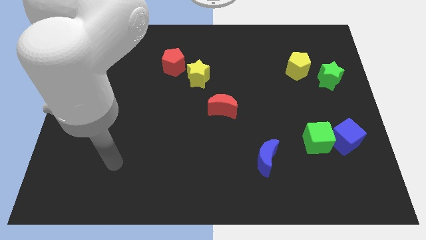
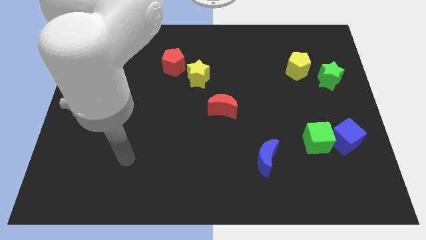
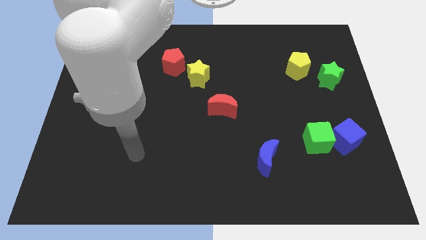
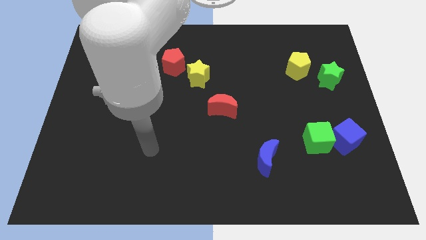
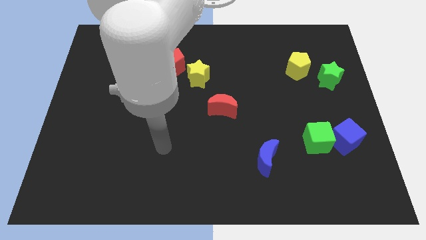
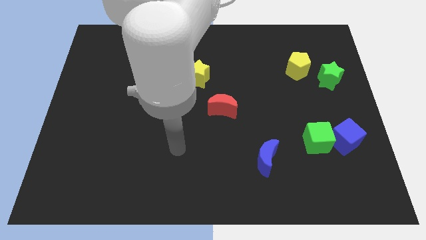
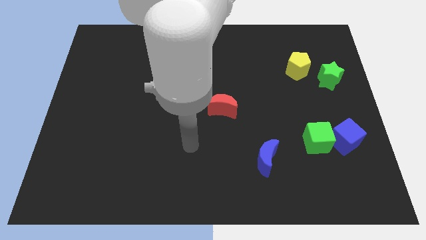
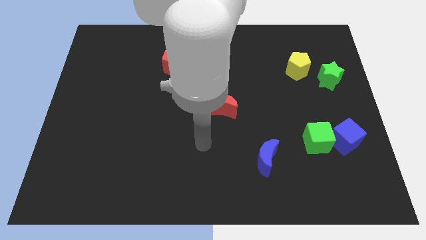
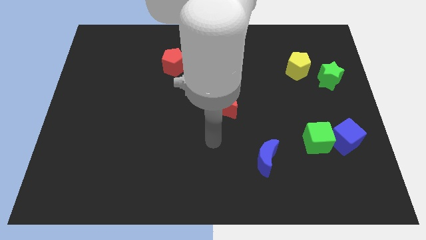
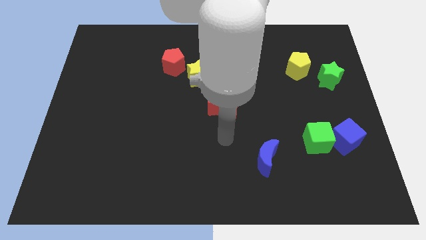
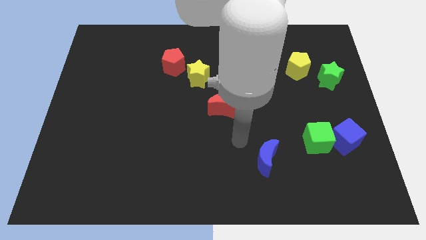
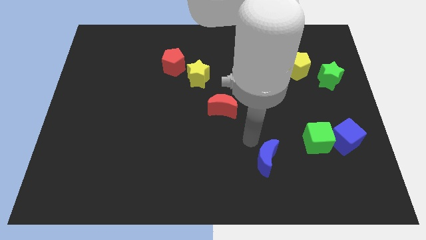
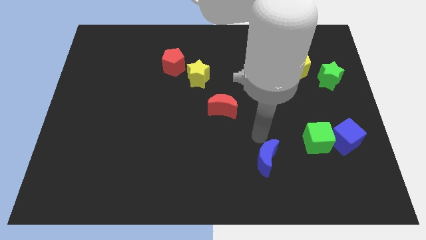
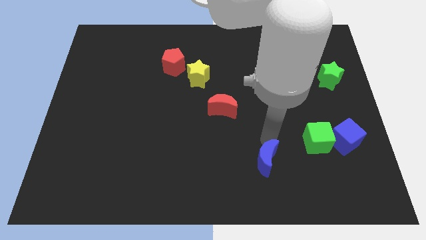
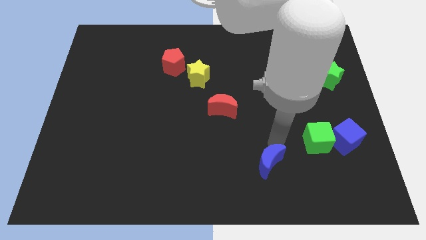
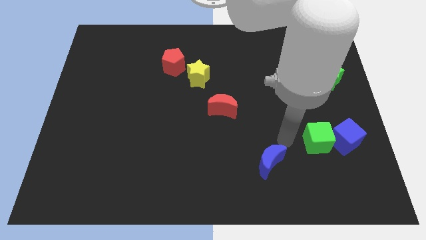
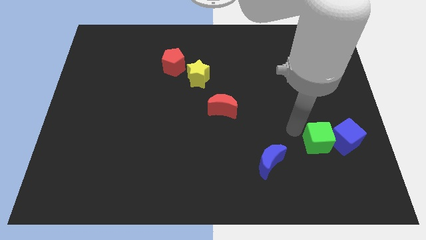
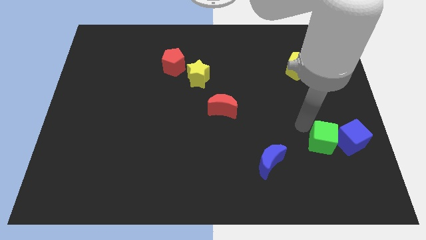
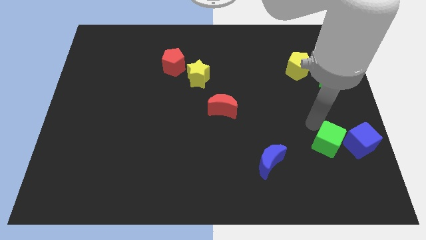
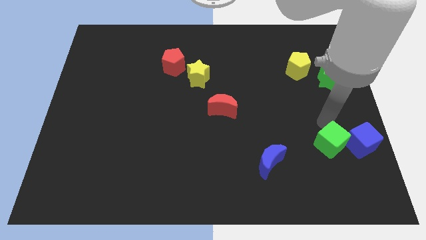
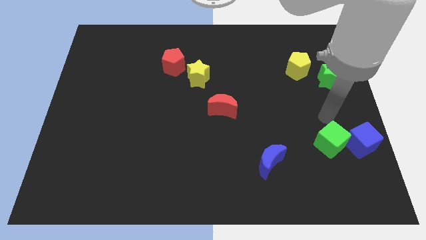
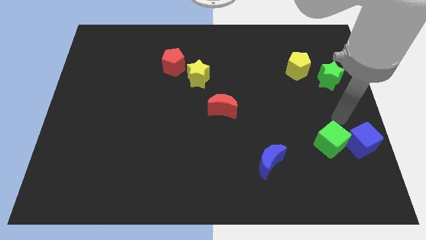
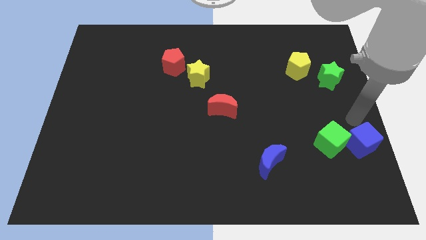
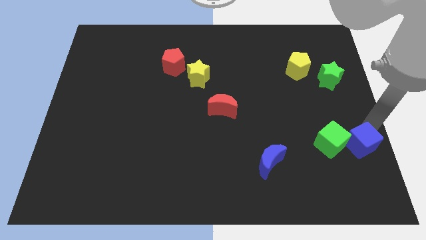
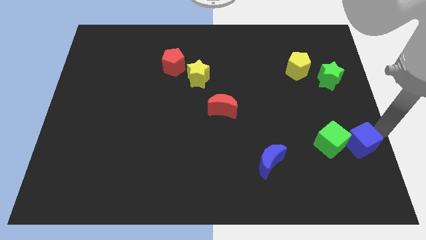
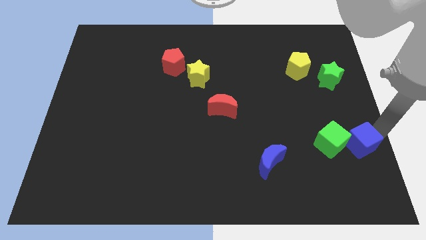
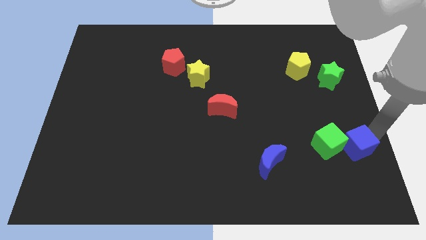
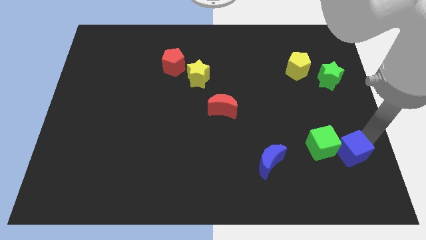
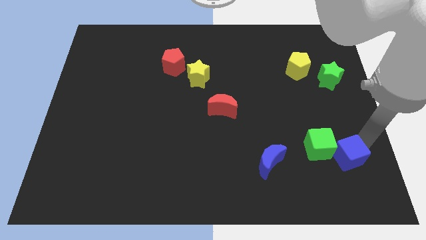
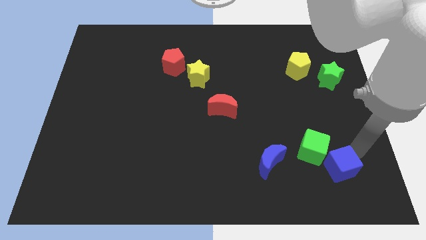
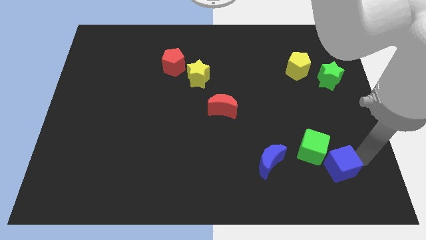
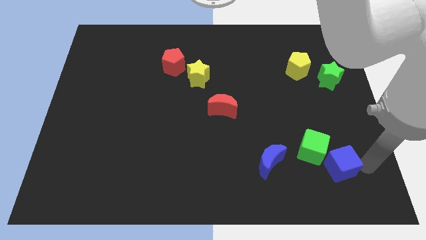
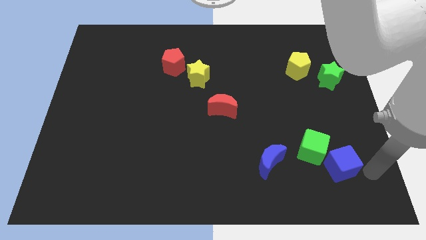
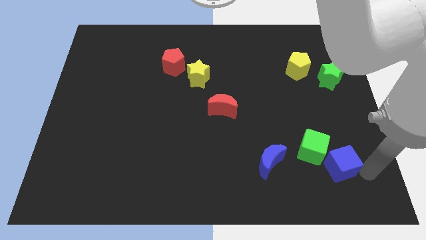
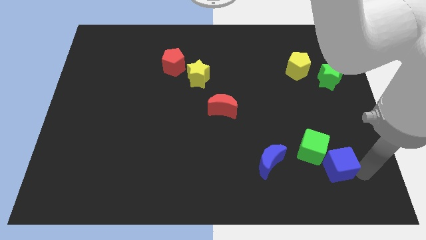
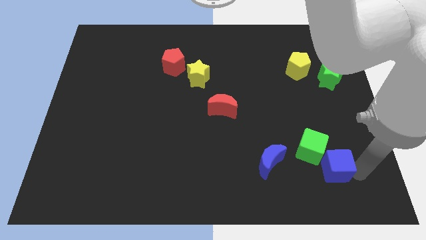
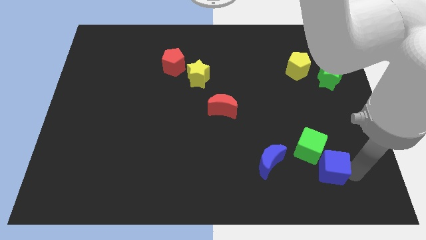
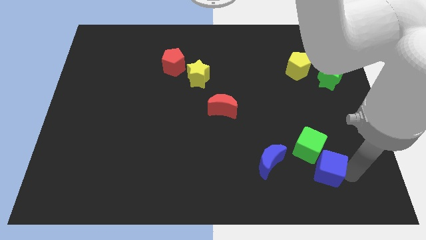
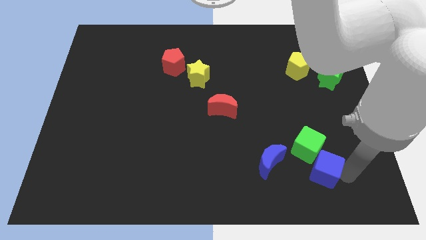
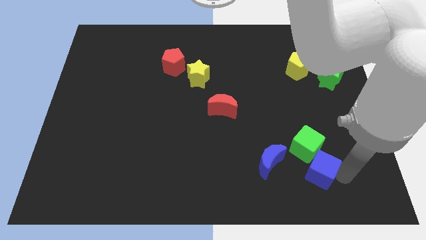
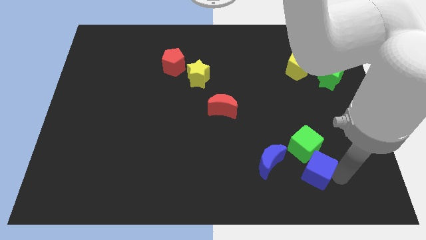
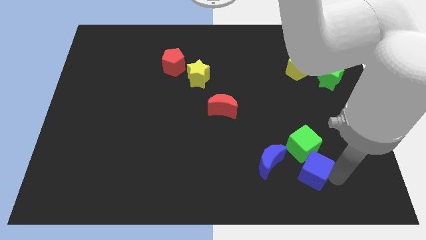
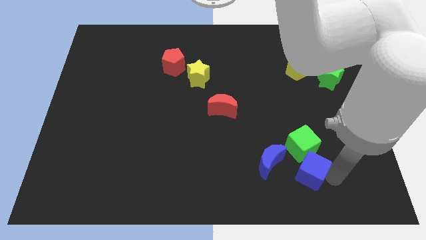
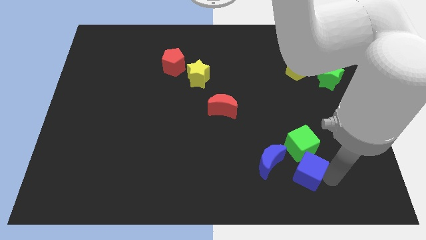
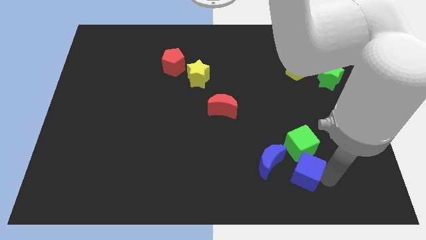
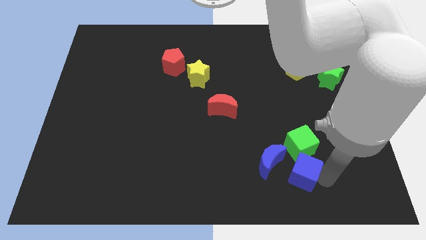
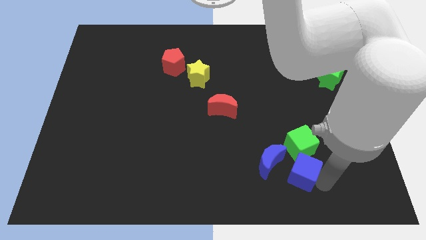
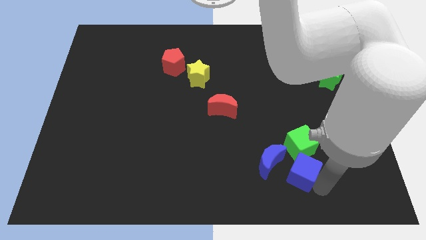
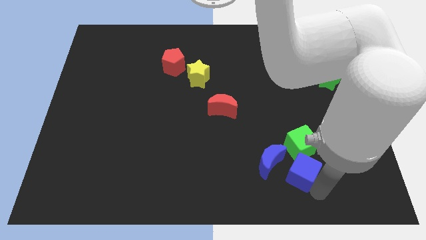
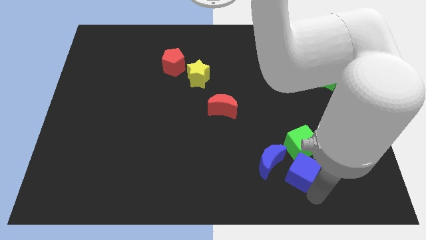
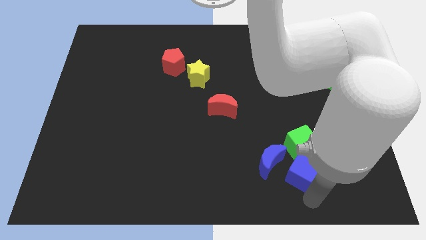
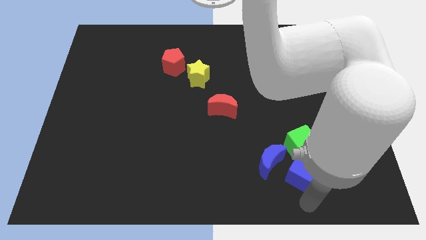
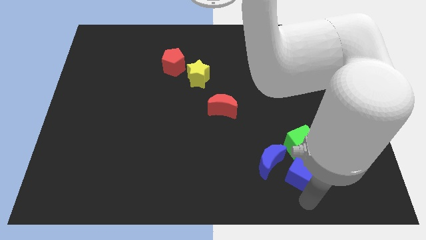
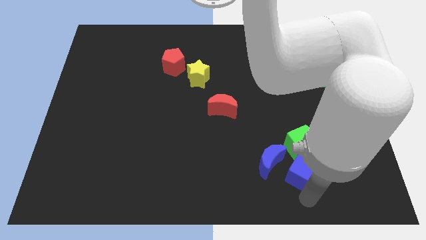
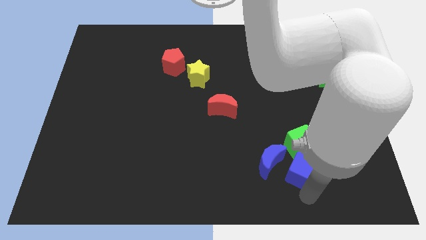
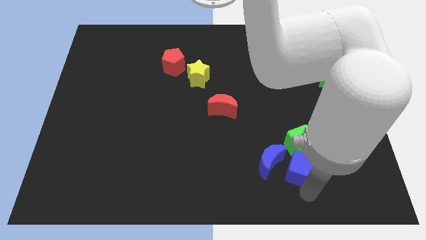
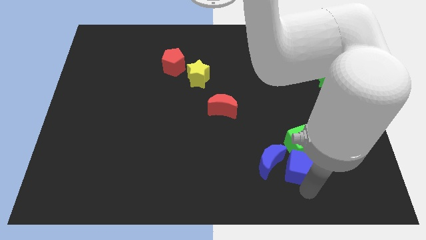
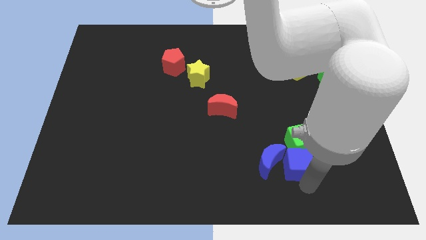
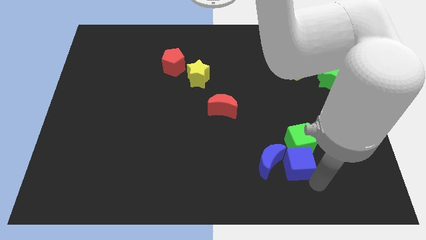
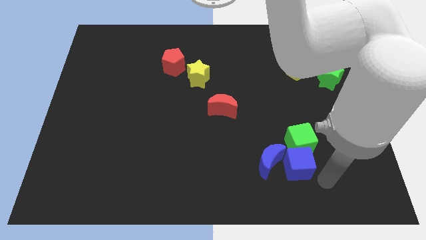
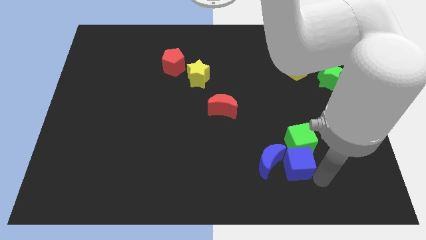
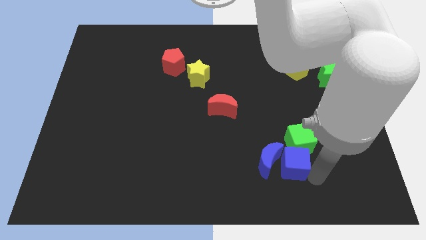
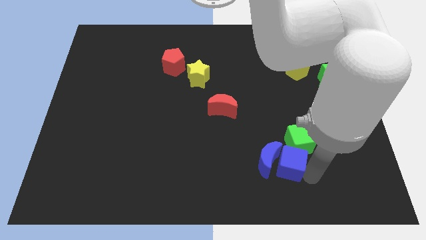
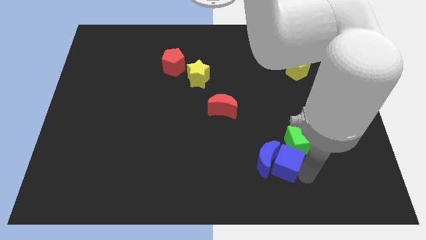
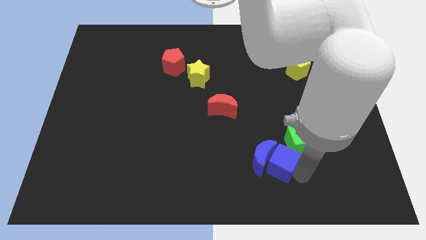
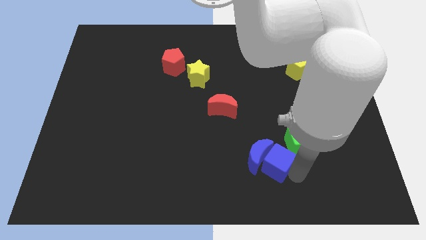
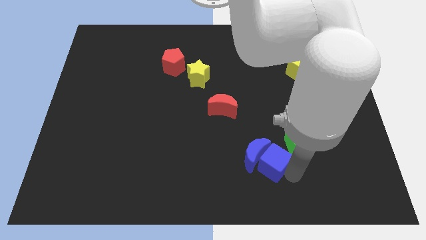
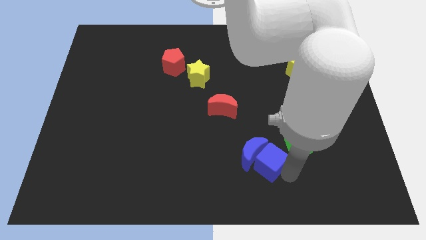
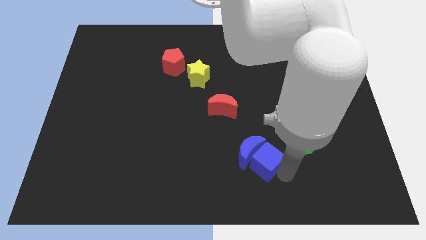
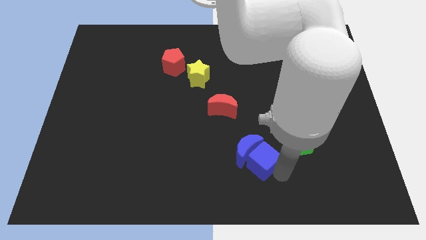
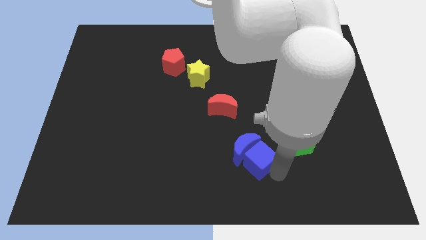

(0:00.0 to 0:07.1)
slide the blue cube to the left side of the green cube

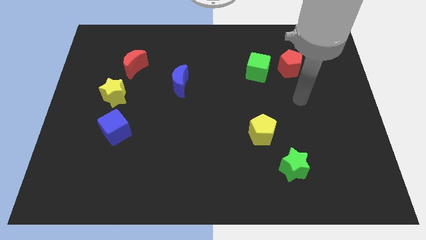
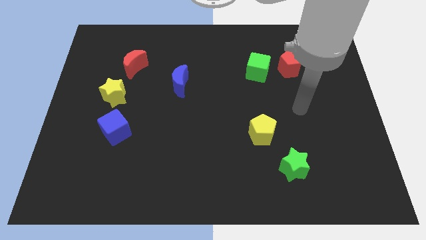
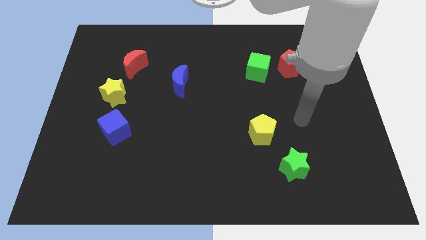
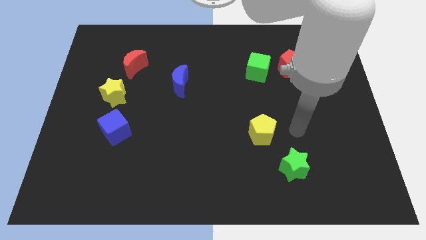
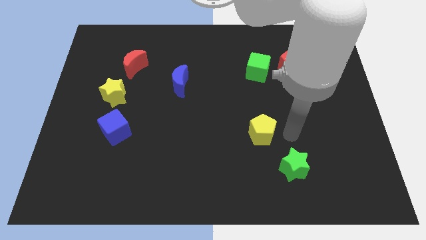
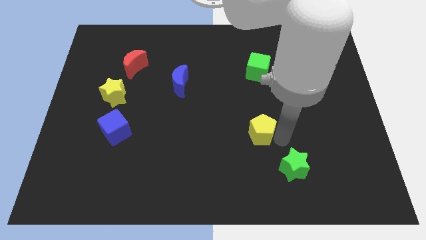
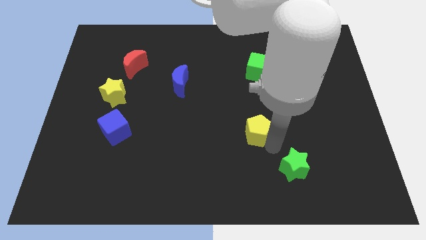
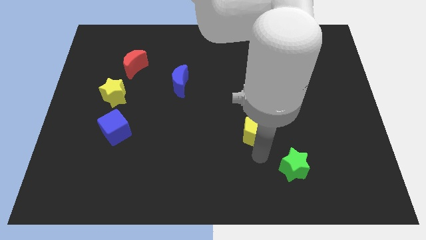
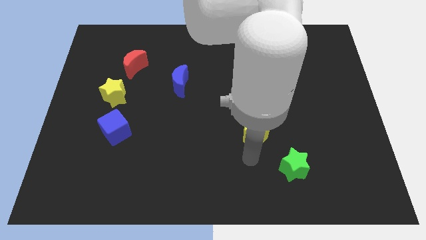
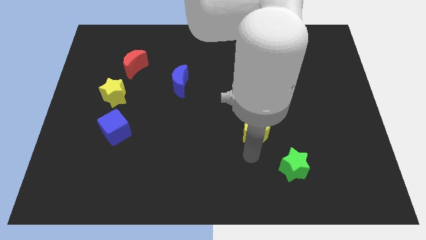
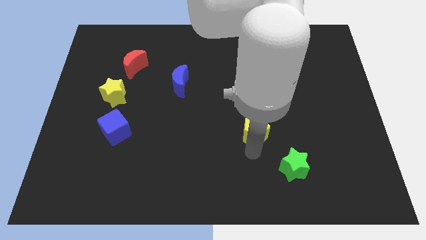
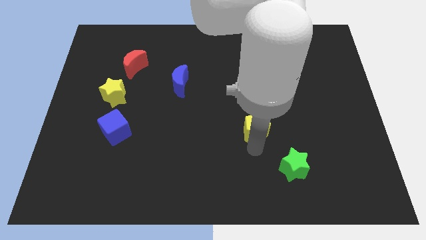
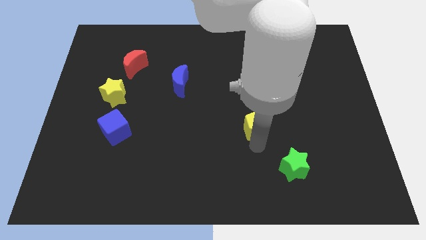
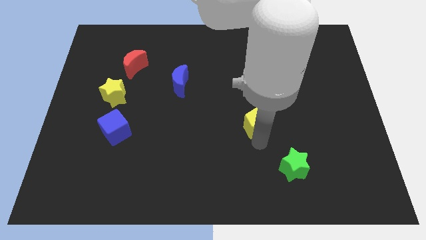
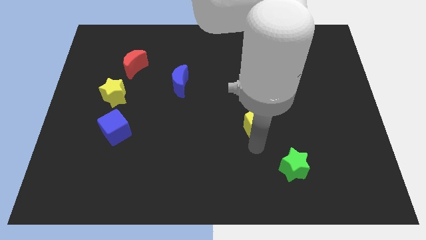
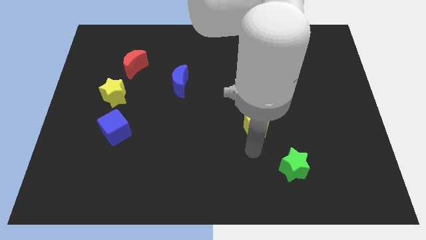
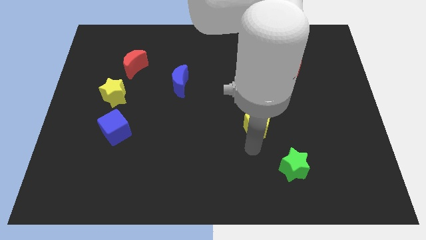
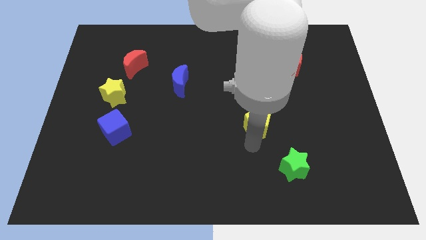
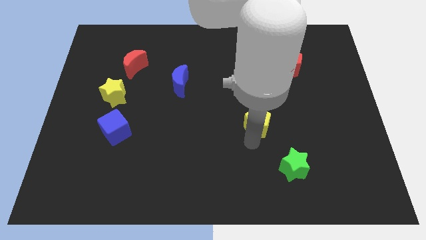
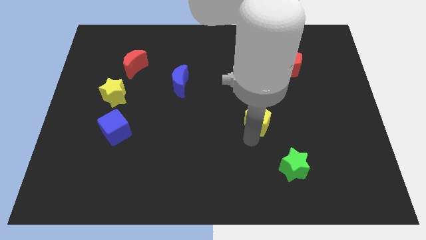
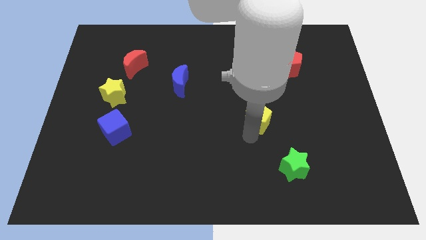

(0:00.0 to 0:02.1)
move the yellow pentagon to the bottom side of the green cube
